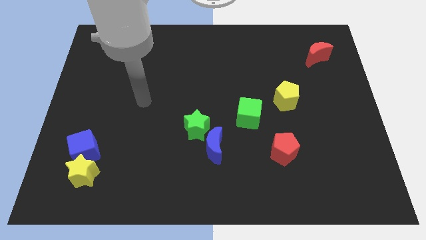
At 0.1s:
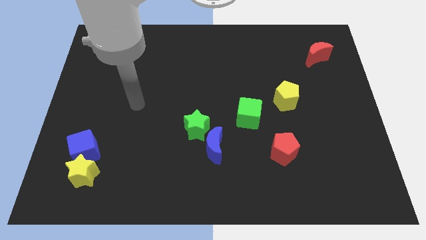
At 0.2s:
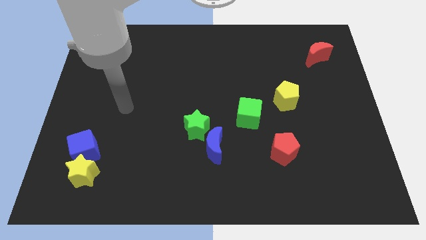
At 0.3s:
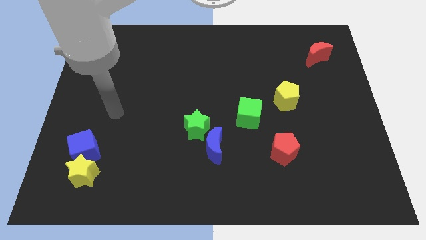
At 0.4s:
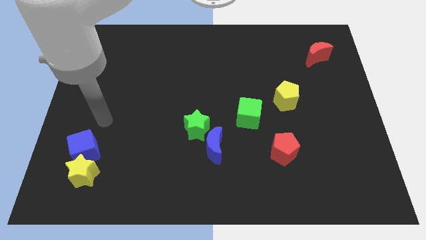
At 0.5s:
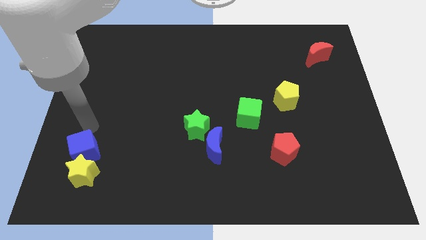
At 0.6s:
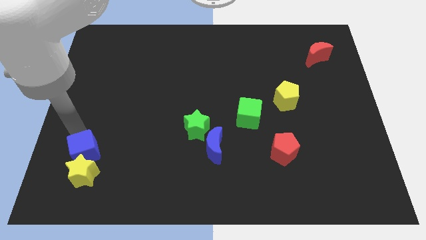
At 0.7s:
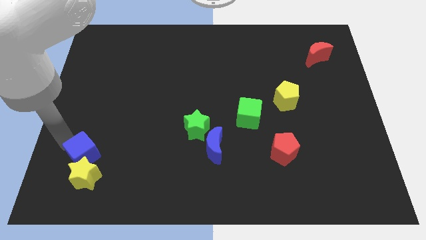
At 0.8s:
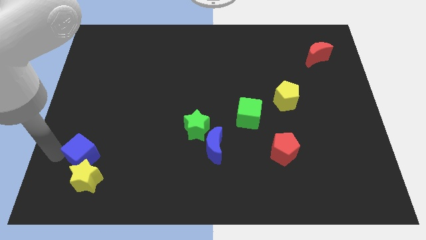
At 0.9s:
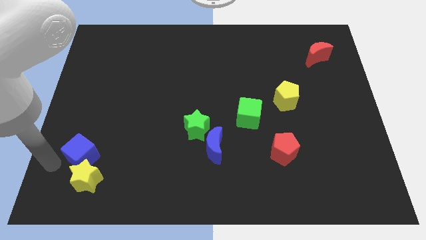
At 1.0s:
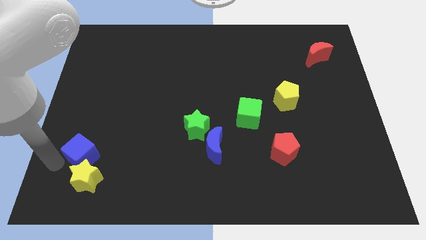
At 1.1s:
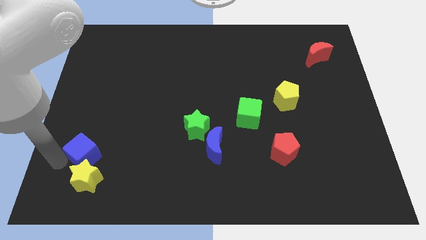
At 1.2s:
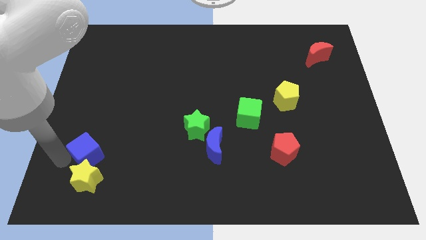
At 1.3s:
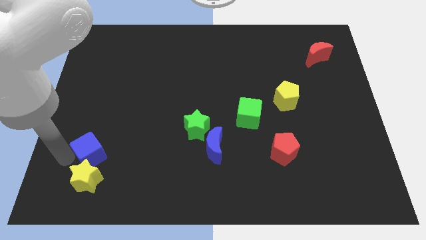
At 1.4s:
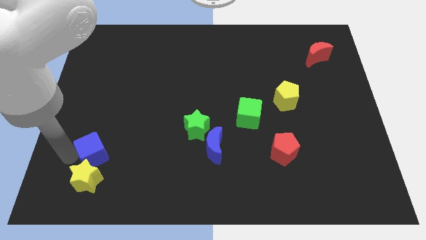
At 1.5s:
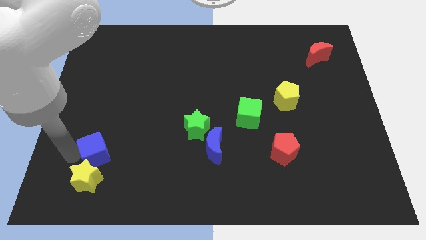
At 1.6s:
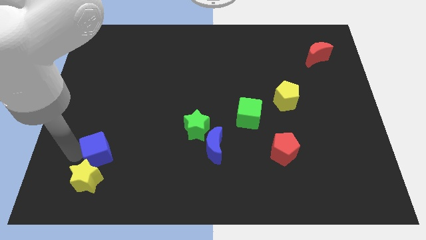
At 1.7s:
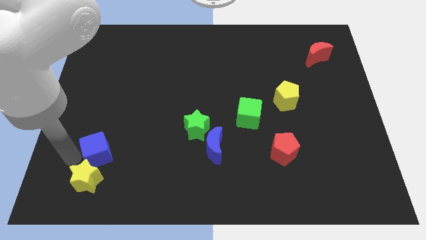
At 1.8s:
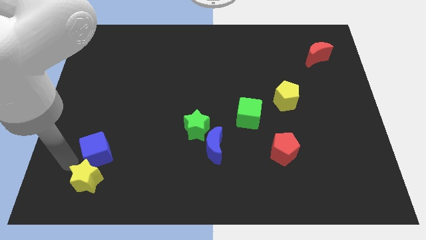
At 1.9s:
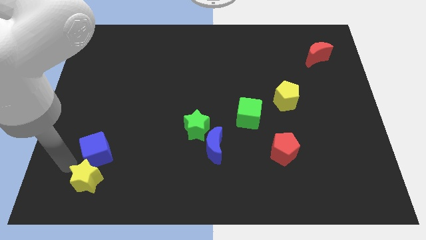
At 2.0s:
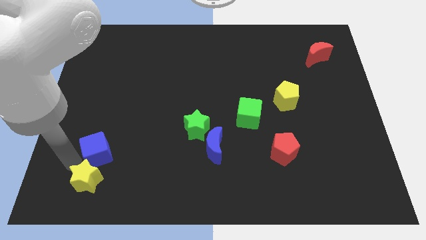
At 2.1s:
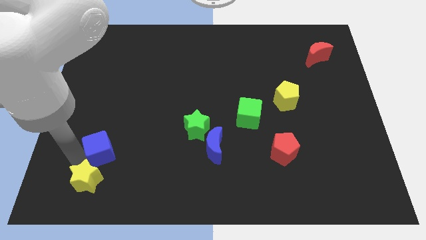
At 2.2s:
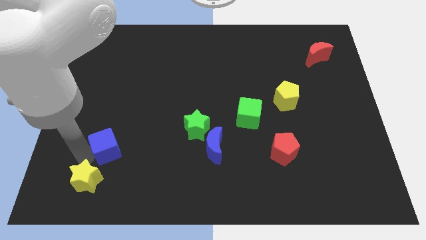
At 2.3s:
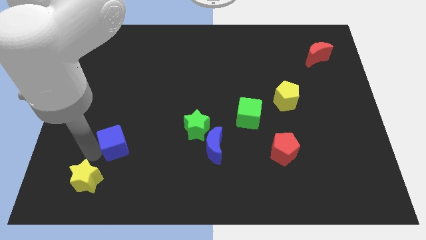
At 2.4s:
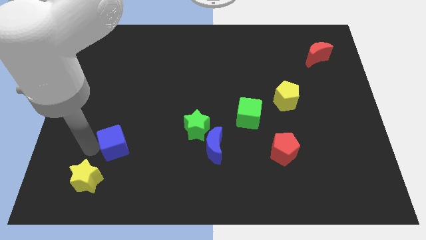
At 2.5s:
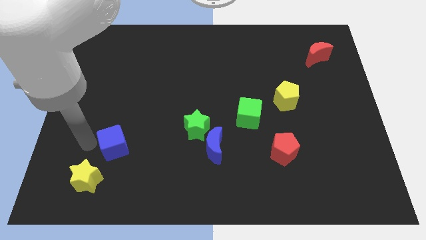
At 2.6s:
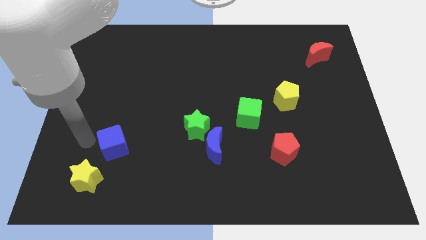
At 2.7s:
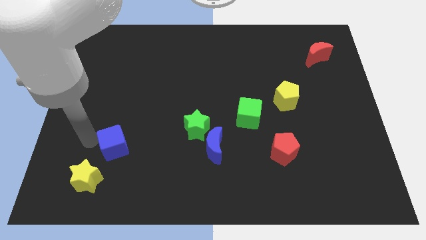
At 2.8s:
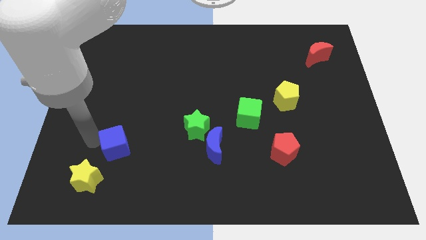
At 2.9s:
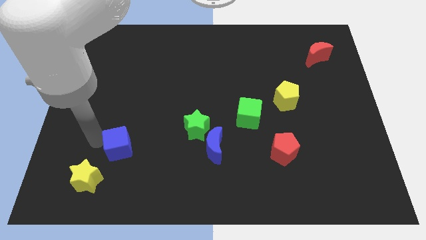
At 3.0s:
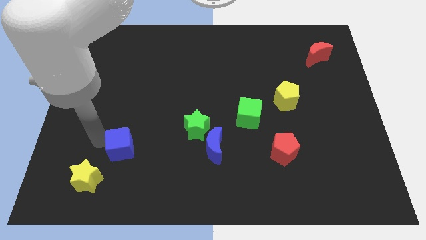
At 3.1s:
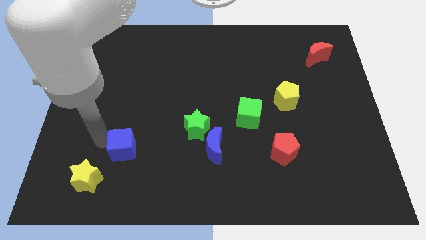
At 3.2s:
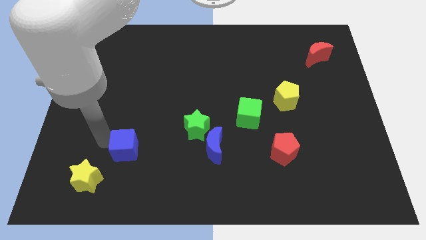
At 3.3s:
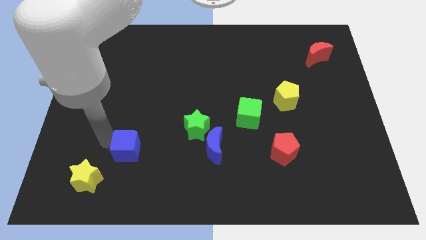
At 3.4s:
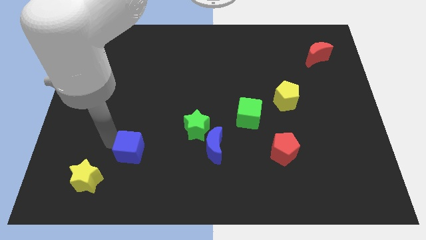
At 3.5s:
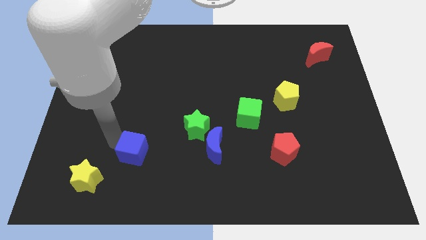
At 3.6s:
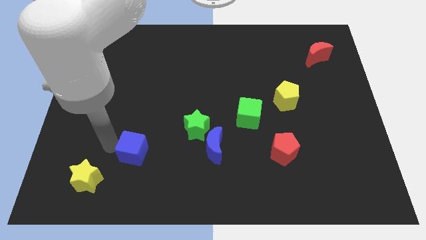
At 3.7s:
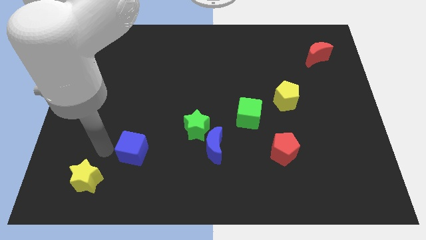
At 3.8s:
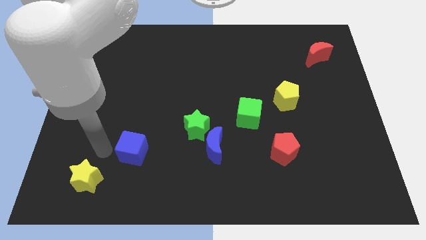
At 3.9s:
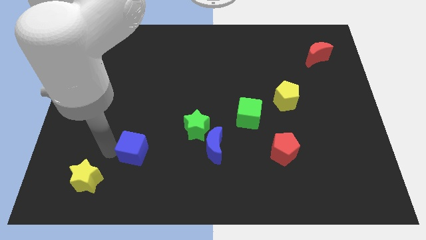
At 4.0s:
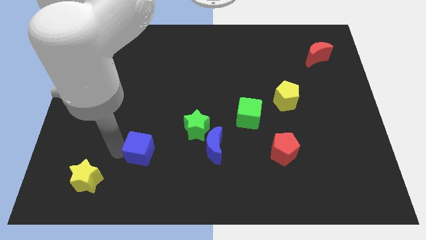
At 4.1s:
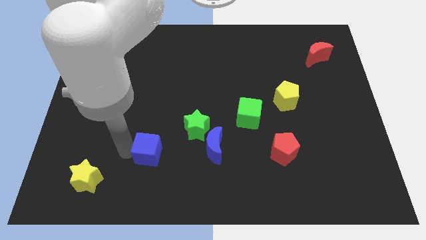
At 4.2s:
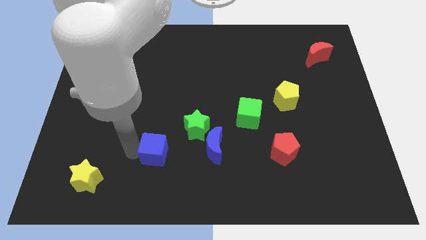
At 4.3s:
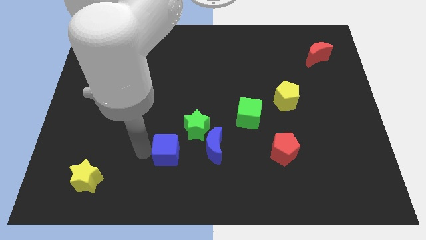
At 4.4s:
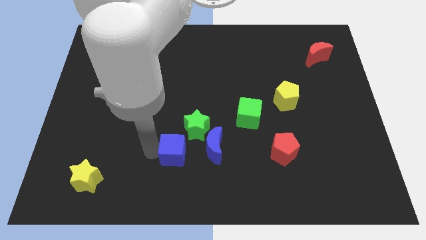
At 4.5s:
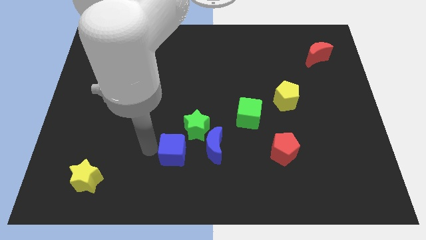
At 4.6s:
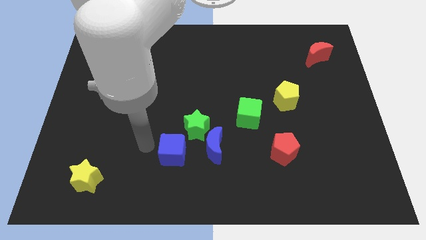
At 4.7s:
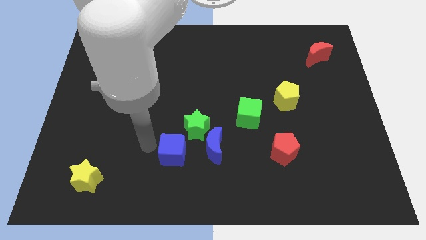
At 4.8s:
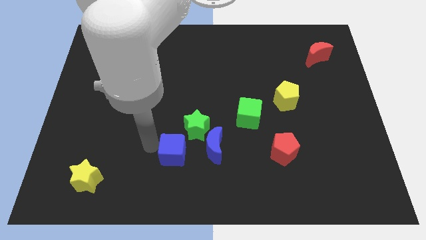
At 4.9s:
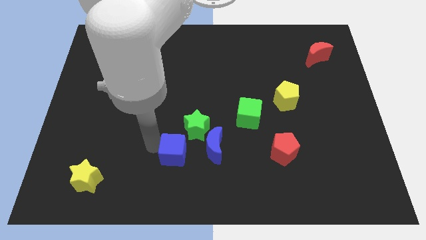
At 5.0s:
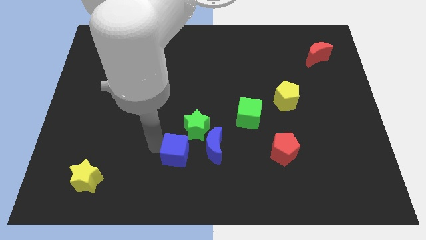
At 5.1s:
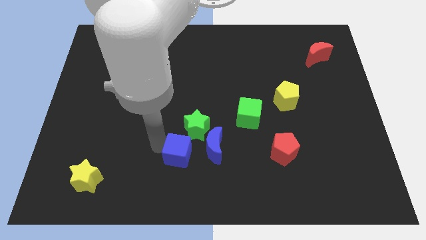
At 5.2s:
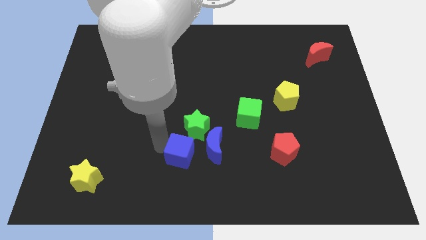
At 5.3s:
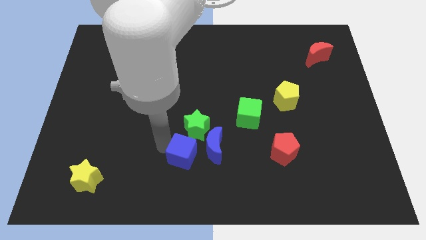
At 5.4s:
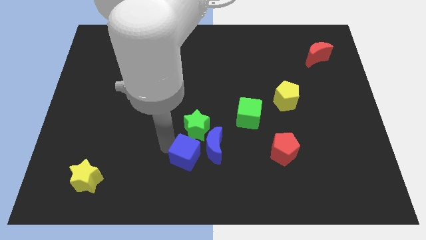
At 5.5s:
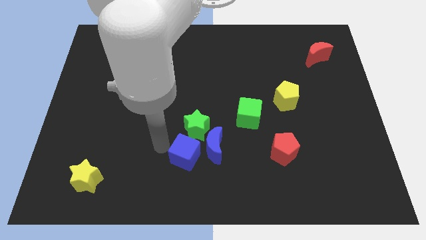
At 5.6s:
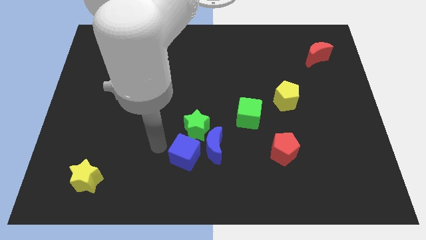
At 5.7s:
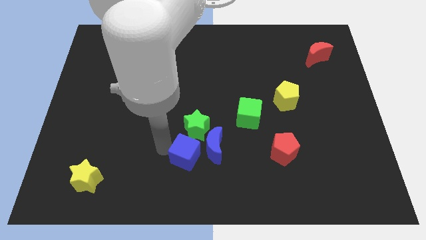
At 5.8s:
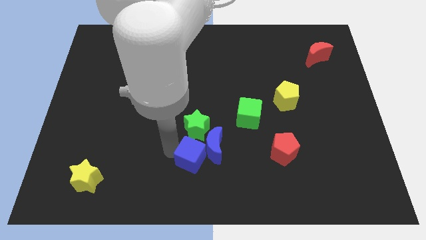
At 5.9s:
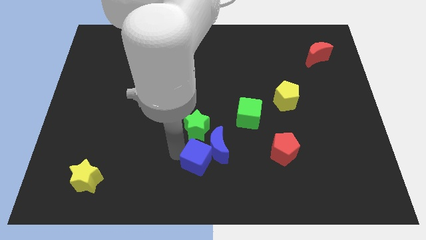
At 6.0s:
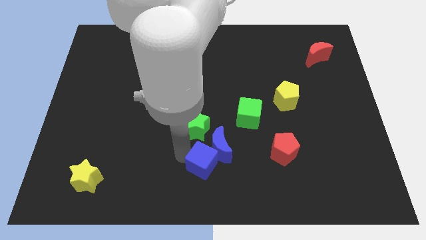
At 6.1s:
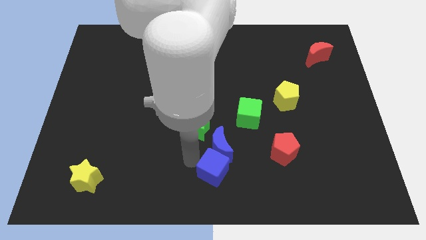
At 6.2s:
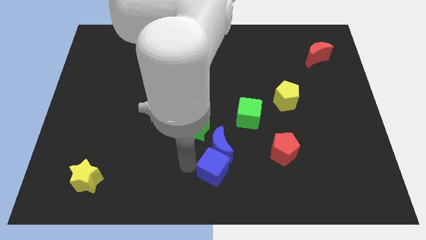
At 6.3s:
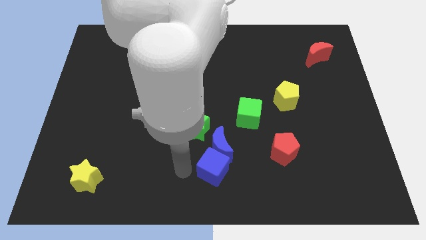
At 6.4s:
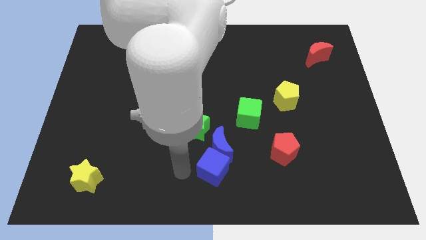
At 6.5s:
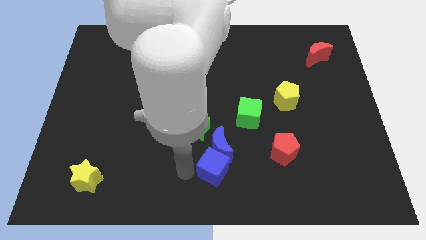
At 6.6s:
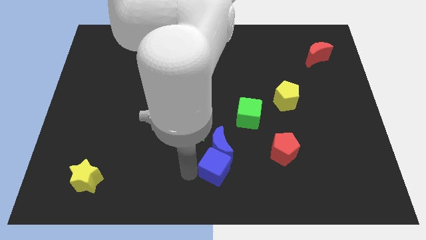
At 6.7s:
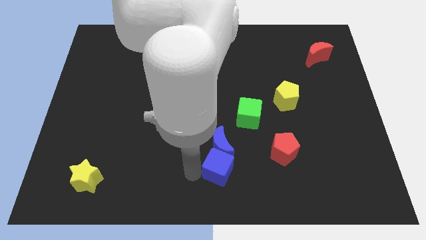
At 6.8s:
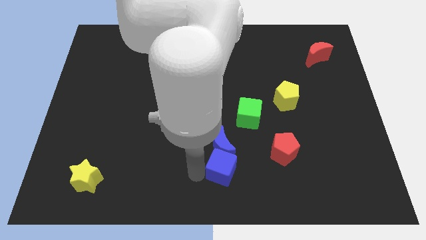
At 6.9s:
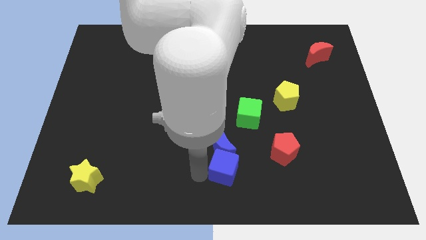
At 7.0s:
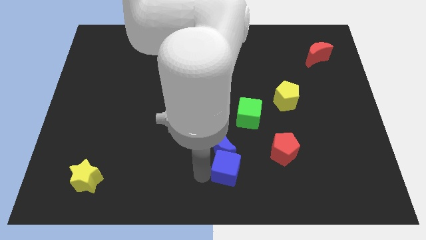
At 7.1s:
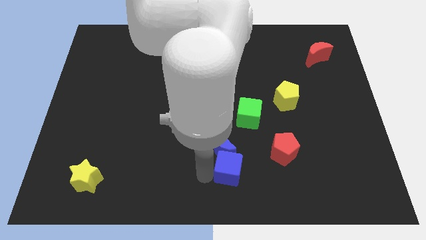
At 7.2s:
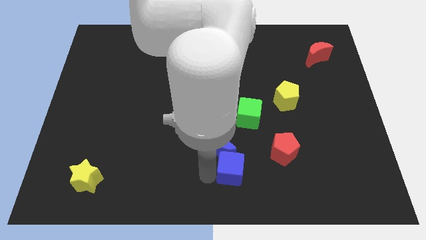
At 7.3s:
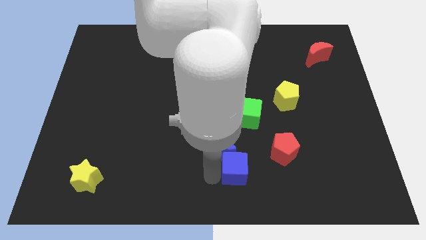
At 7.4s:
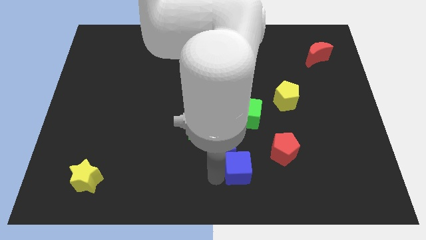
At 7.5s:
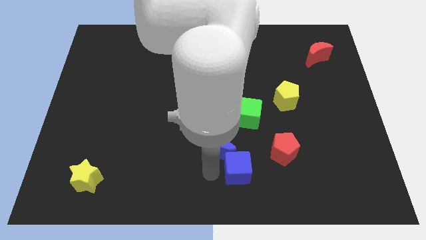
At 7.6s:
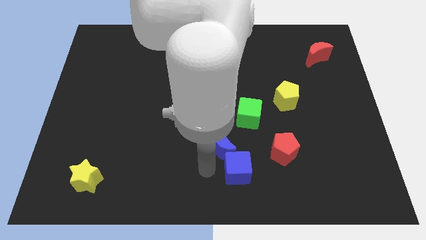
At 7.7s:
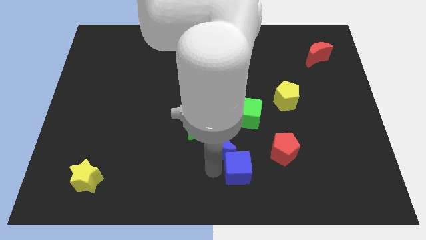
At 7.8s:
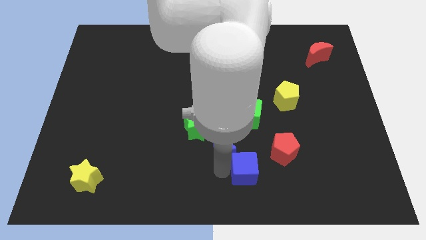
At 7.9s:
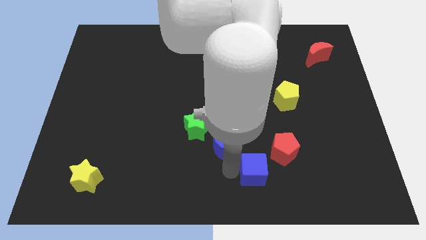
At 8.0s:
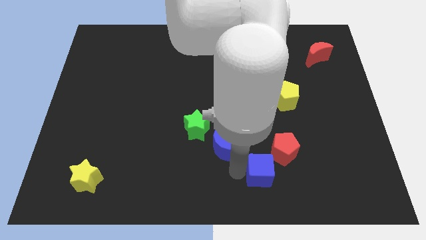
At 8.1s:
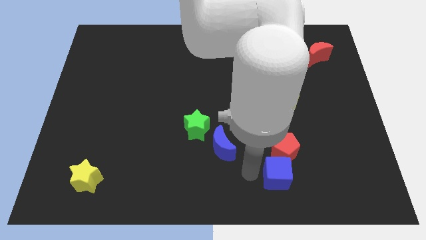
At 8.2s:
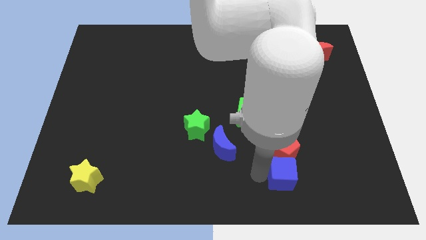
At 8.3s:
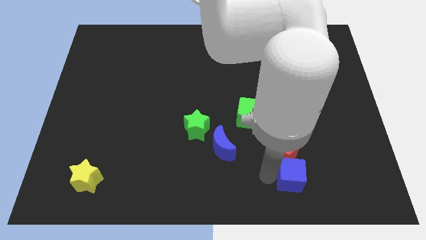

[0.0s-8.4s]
slide the blue cube to the bottom right of the red pentagon
